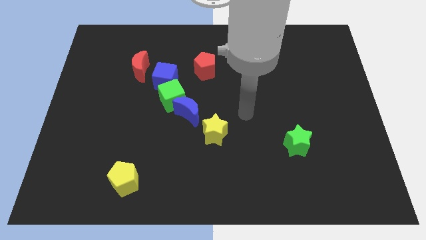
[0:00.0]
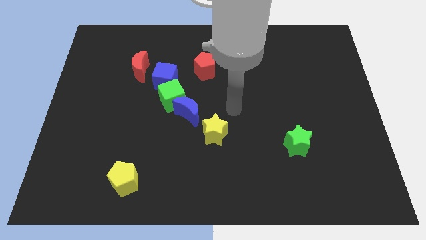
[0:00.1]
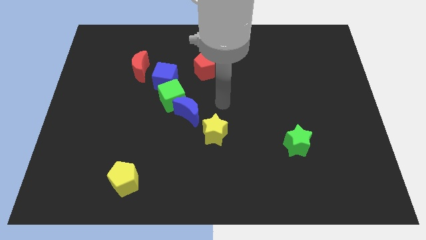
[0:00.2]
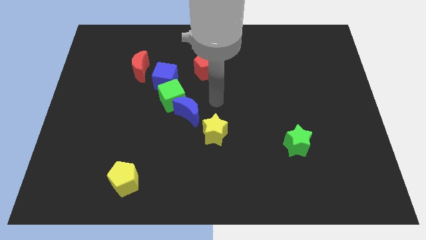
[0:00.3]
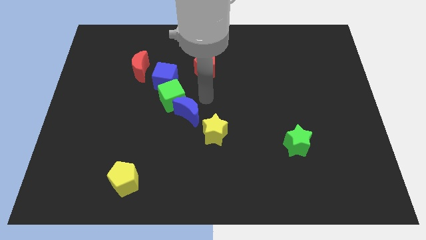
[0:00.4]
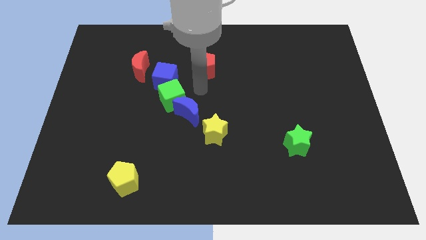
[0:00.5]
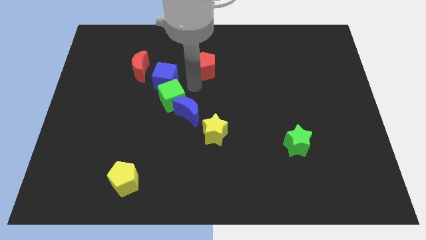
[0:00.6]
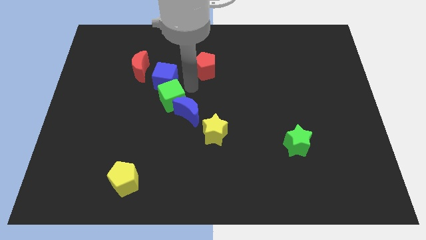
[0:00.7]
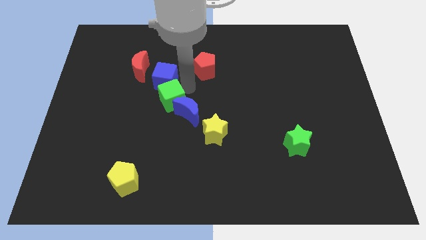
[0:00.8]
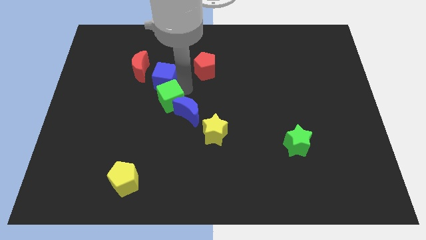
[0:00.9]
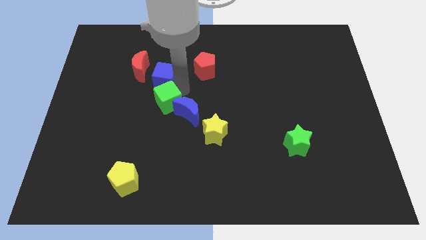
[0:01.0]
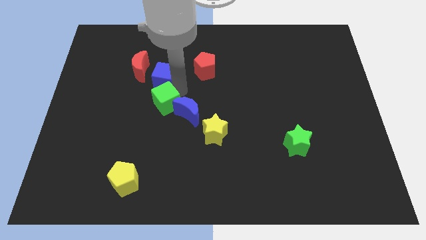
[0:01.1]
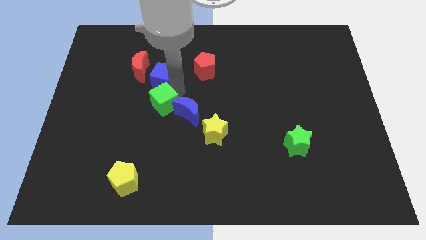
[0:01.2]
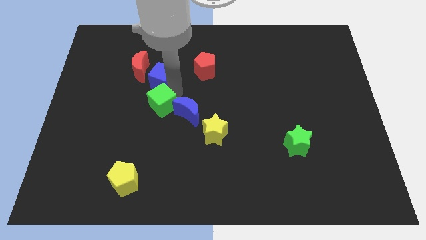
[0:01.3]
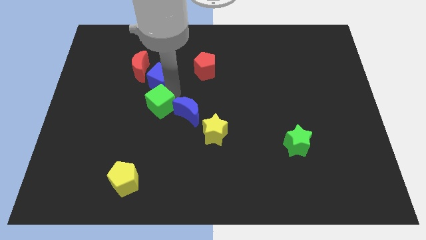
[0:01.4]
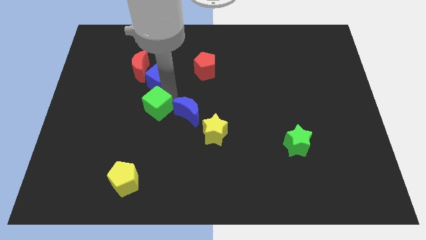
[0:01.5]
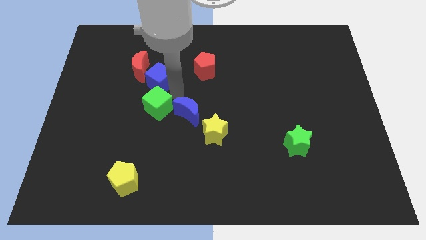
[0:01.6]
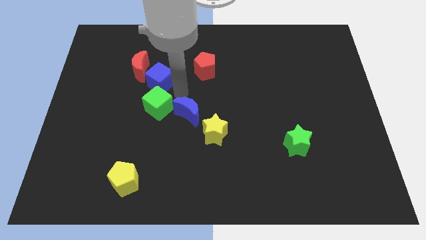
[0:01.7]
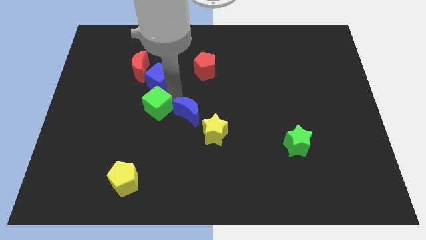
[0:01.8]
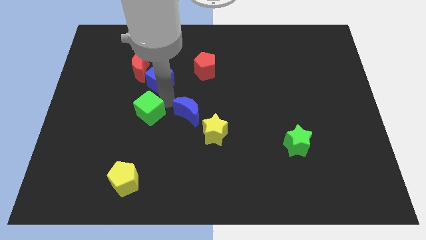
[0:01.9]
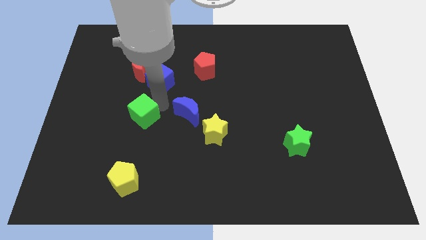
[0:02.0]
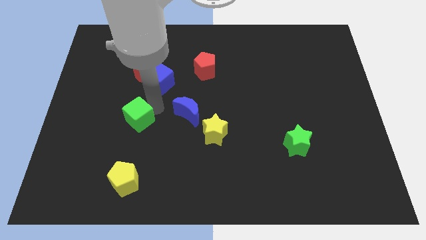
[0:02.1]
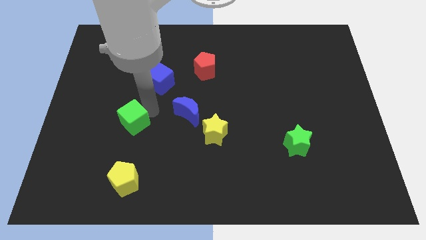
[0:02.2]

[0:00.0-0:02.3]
separate the green cube from the blue moon and blue cube

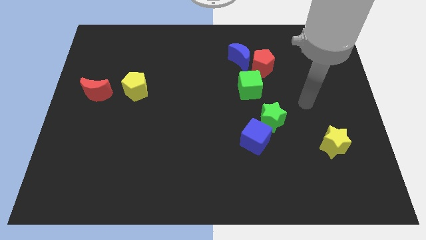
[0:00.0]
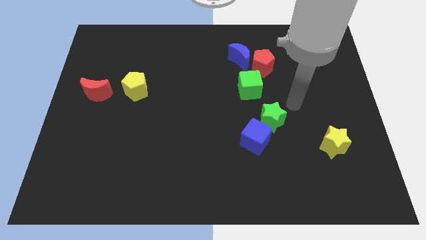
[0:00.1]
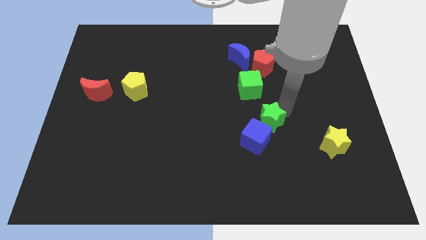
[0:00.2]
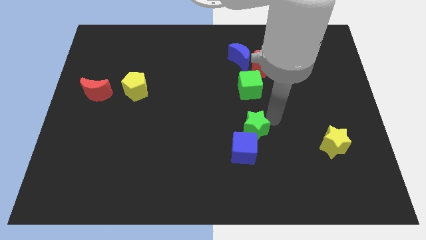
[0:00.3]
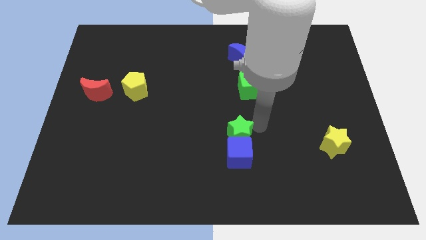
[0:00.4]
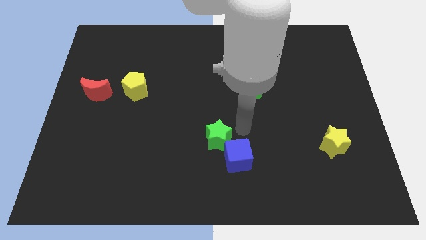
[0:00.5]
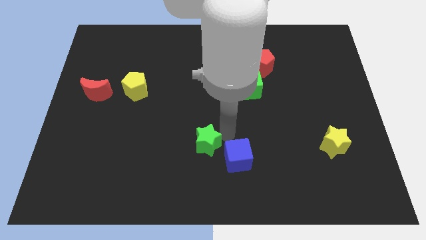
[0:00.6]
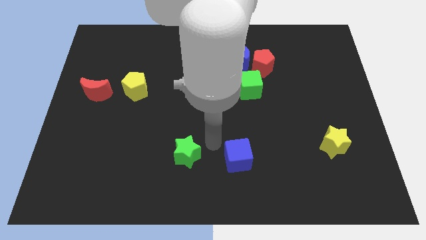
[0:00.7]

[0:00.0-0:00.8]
move the blue cube away from the green star

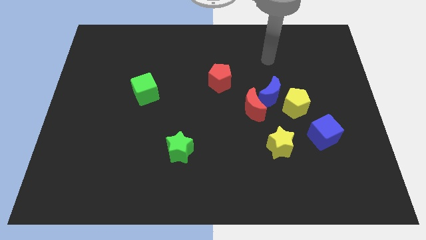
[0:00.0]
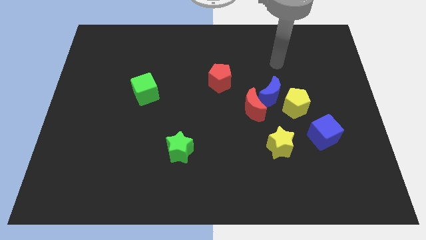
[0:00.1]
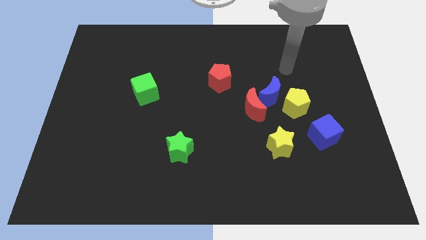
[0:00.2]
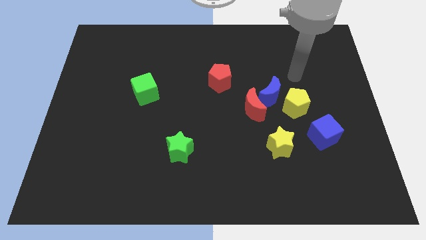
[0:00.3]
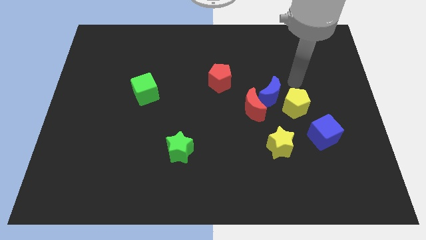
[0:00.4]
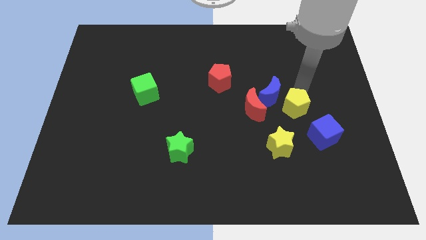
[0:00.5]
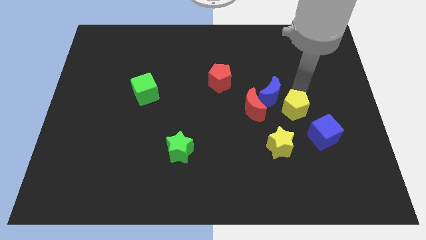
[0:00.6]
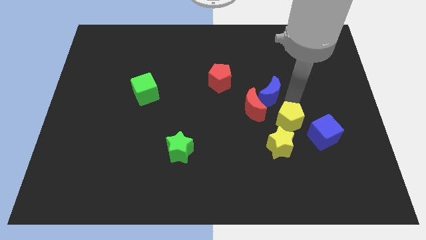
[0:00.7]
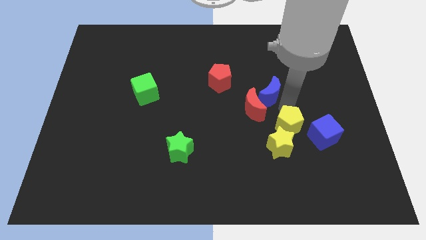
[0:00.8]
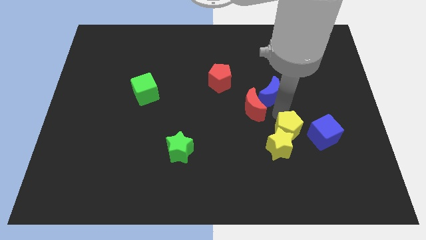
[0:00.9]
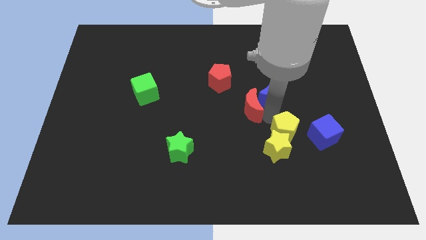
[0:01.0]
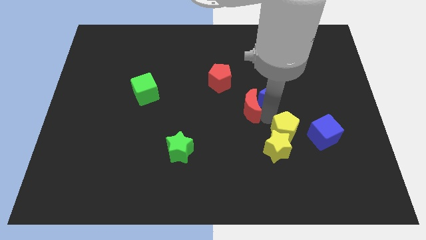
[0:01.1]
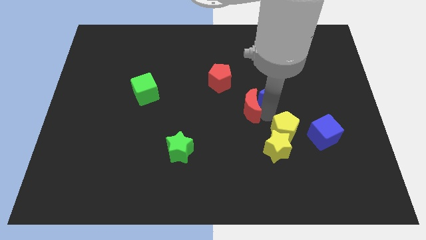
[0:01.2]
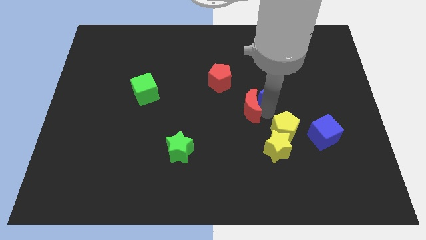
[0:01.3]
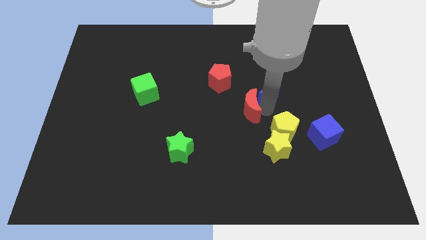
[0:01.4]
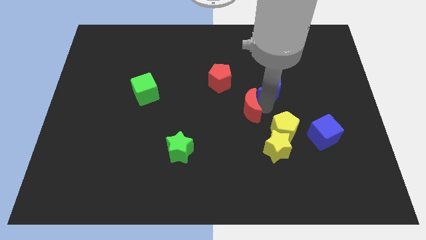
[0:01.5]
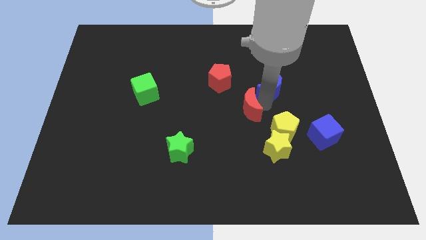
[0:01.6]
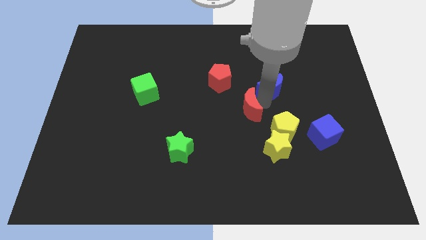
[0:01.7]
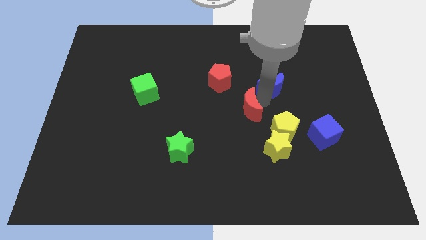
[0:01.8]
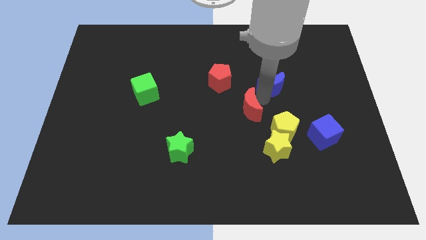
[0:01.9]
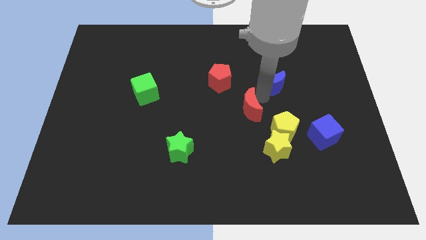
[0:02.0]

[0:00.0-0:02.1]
move the blue moon away from the red moon and yellow pentagon

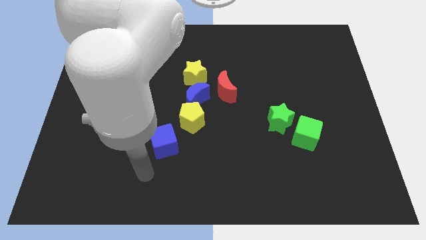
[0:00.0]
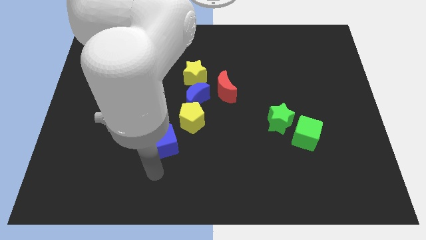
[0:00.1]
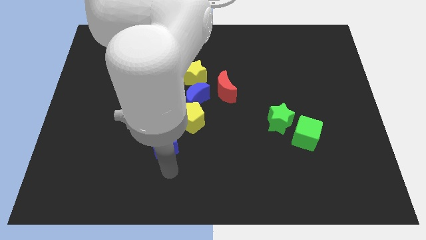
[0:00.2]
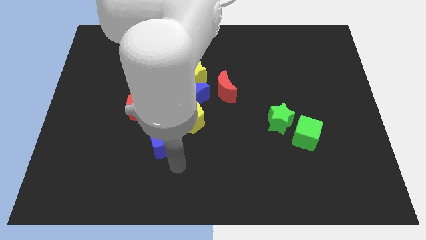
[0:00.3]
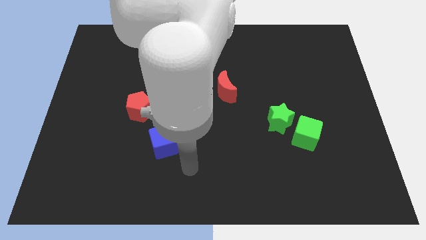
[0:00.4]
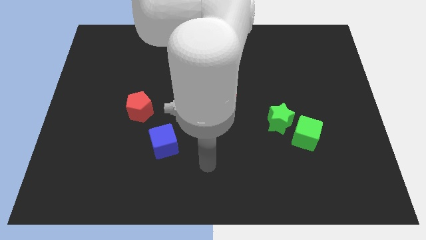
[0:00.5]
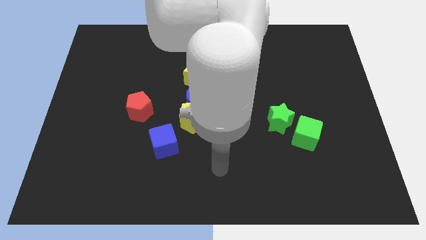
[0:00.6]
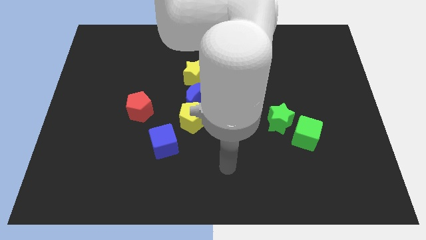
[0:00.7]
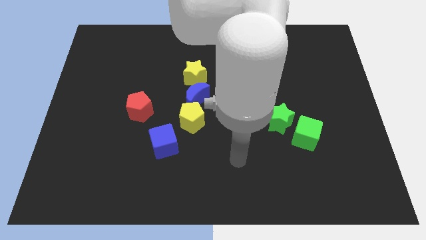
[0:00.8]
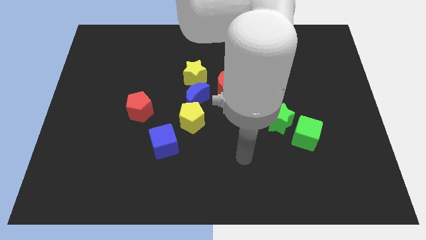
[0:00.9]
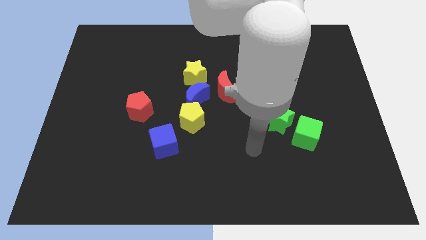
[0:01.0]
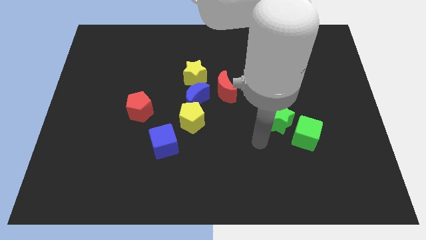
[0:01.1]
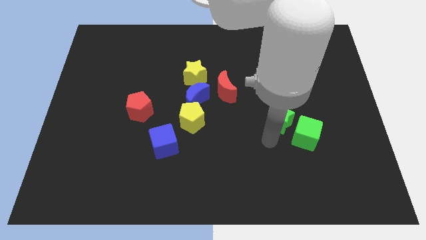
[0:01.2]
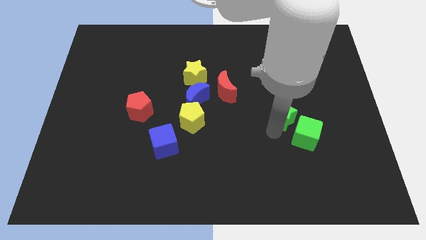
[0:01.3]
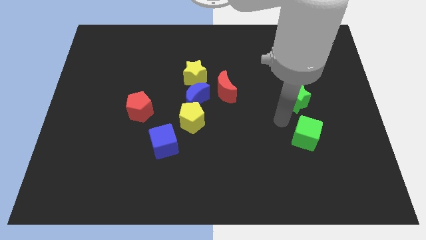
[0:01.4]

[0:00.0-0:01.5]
separate the green cube from the green star

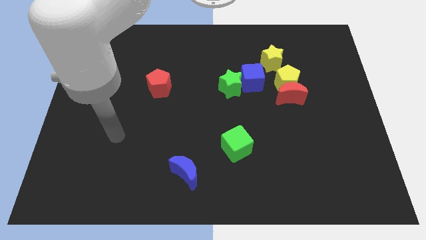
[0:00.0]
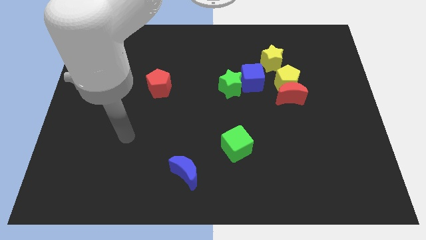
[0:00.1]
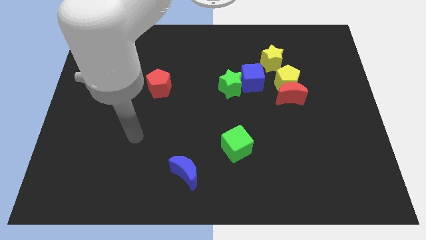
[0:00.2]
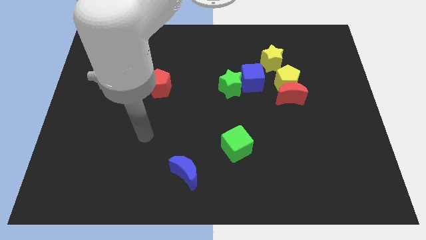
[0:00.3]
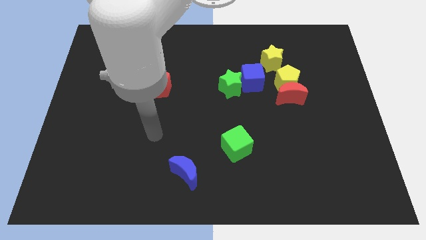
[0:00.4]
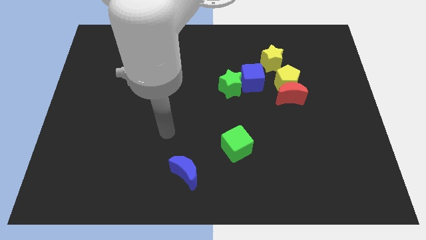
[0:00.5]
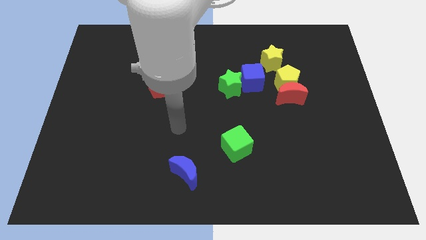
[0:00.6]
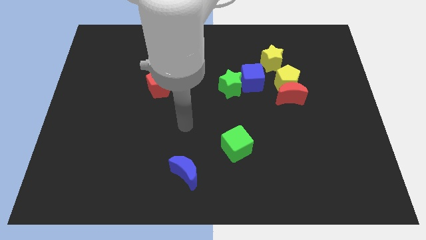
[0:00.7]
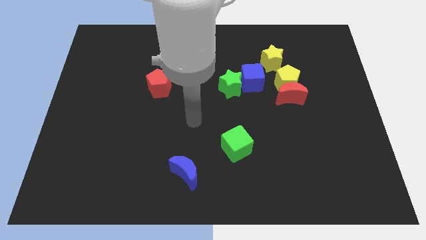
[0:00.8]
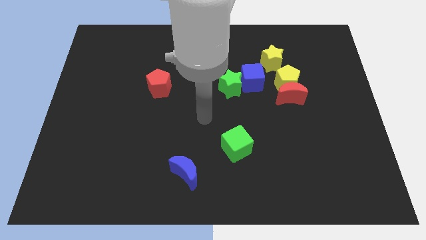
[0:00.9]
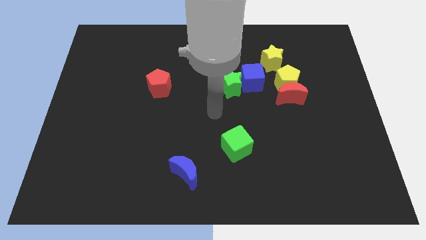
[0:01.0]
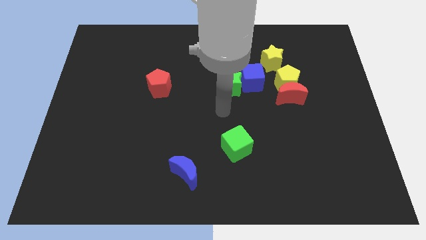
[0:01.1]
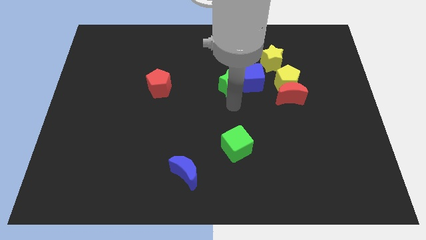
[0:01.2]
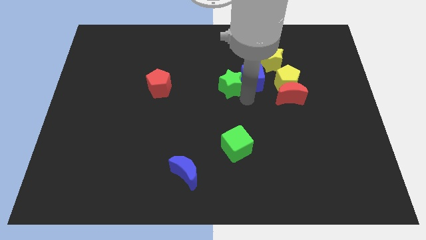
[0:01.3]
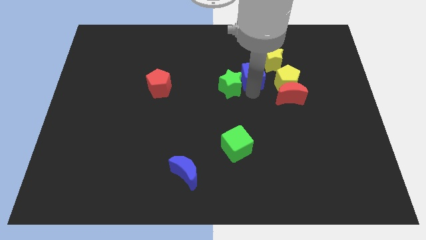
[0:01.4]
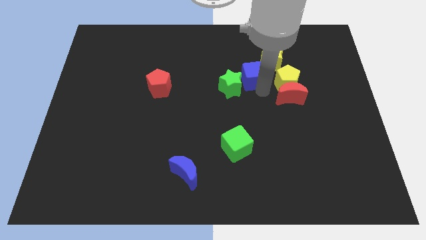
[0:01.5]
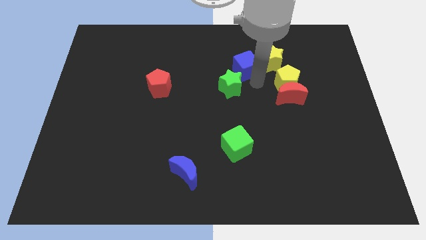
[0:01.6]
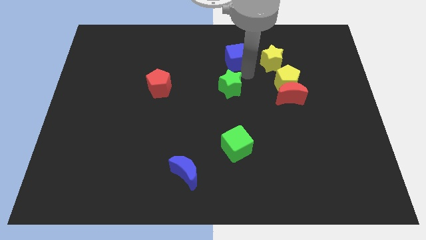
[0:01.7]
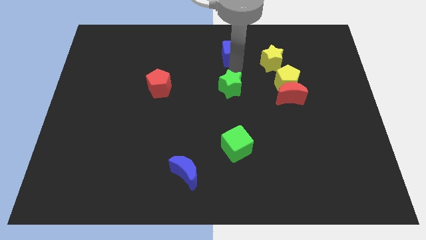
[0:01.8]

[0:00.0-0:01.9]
pull the green star apart from the blue cube

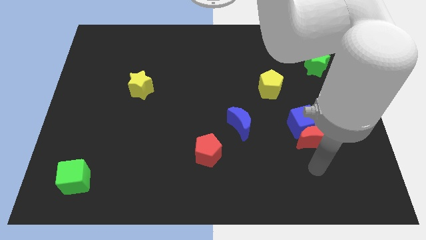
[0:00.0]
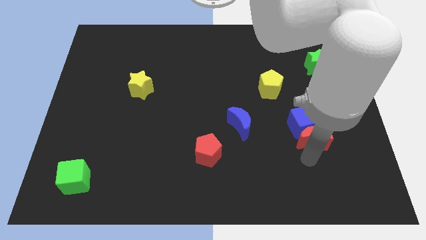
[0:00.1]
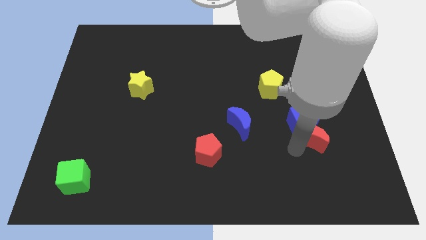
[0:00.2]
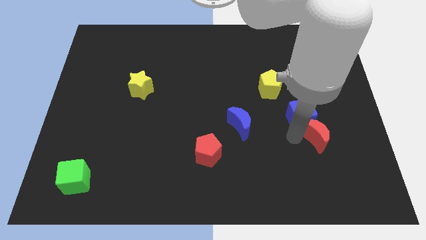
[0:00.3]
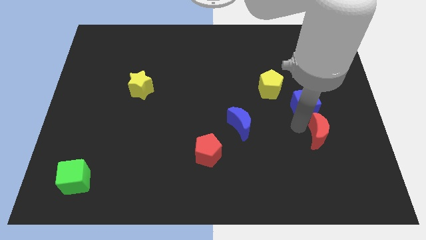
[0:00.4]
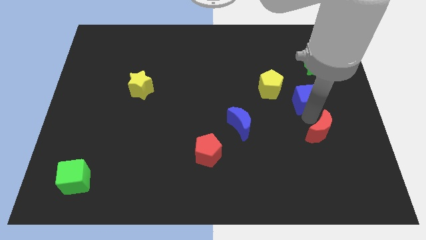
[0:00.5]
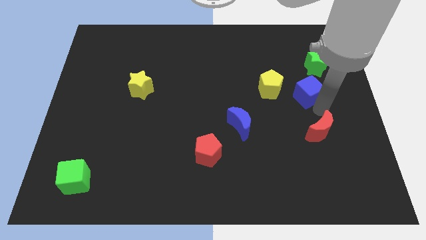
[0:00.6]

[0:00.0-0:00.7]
move the red moon away from the blue cube

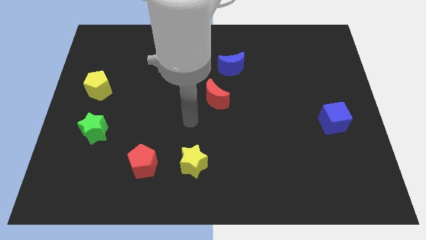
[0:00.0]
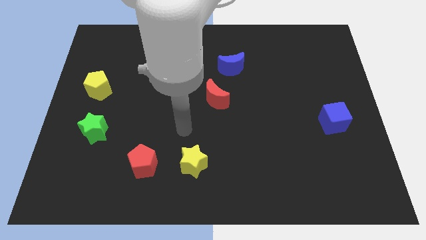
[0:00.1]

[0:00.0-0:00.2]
move the red pentagon away from the yellow star

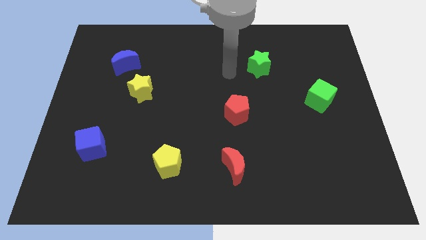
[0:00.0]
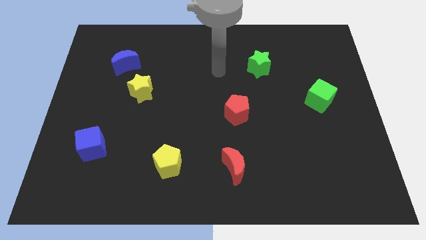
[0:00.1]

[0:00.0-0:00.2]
separate the blue moon from the yellow star
